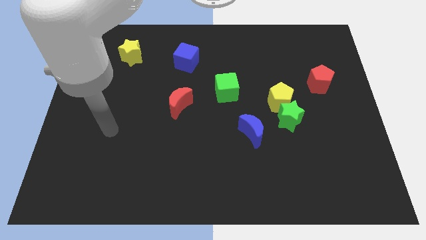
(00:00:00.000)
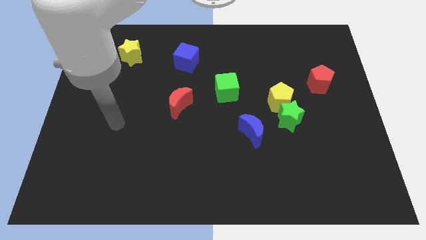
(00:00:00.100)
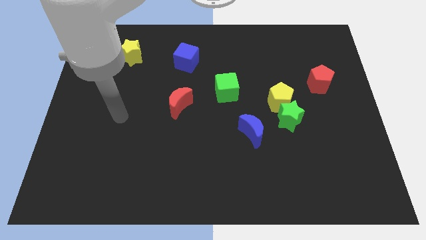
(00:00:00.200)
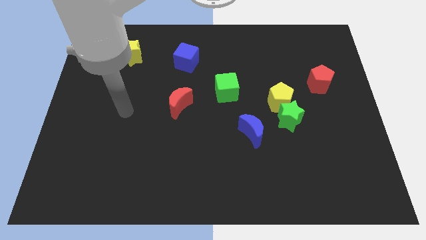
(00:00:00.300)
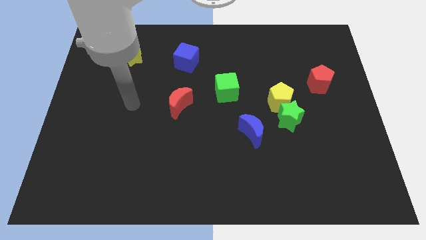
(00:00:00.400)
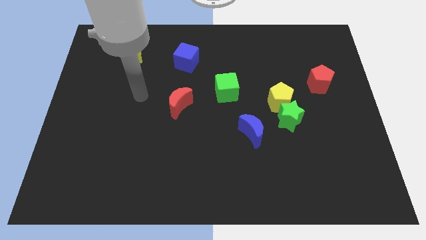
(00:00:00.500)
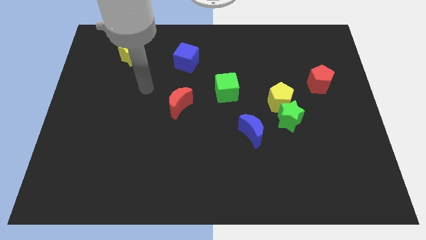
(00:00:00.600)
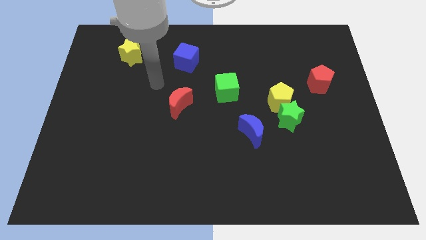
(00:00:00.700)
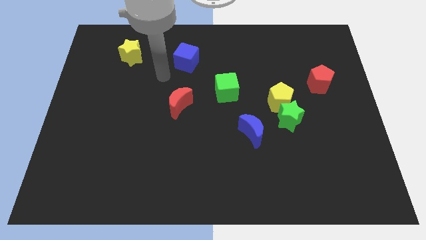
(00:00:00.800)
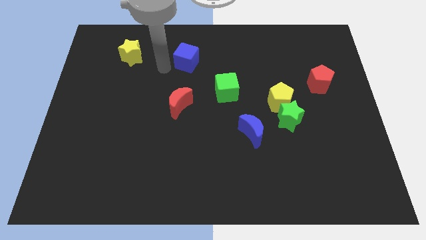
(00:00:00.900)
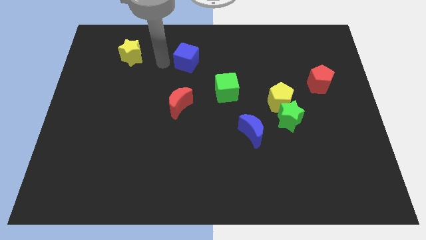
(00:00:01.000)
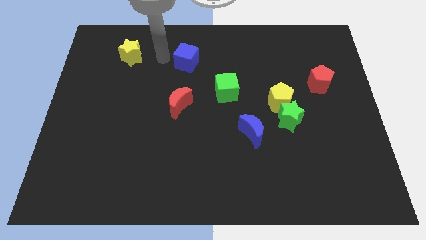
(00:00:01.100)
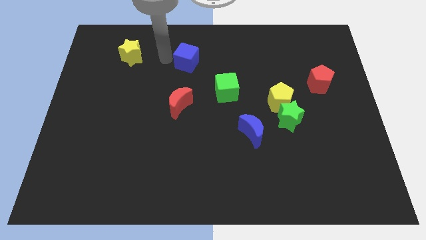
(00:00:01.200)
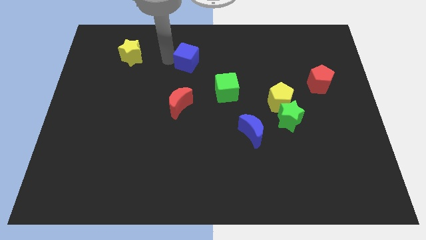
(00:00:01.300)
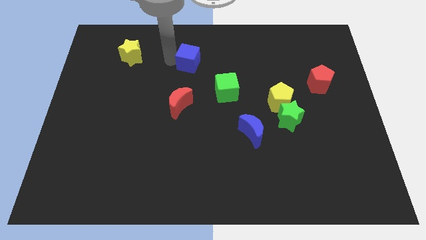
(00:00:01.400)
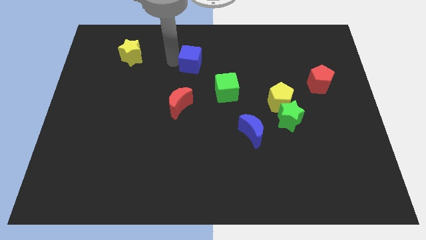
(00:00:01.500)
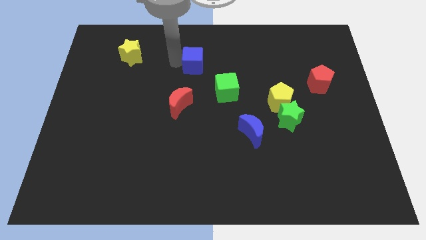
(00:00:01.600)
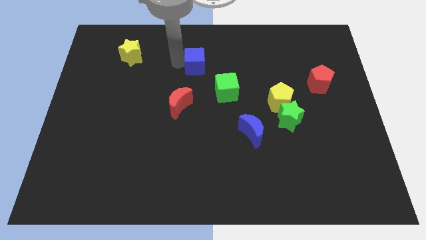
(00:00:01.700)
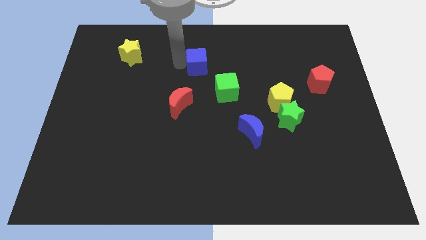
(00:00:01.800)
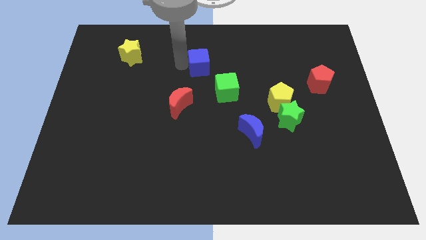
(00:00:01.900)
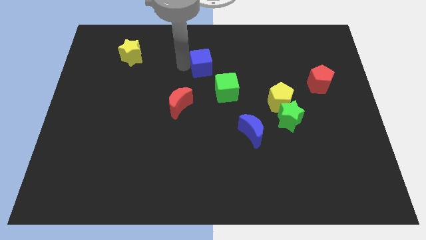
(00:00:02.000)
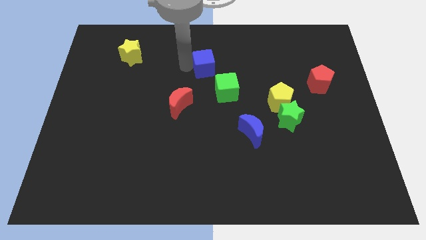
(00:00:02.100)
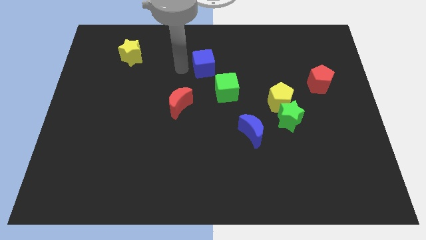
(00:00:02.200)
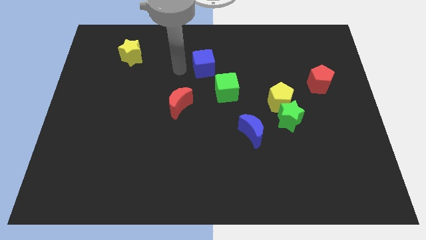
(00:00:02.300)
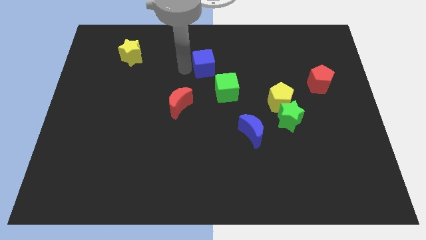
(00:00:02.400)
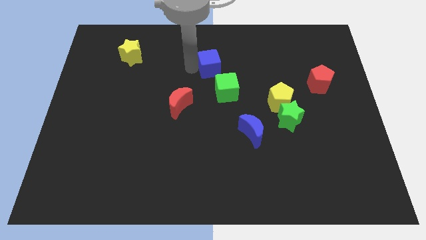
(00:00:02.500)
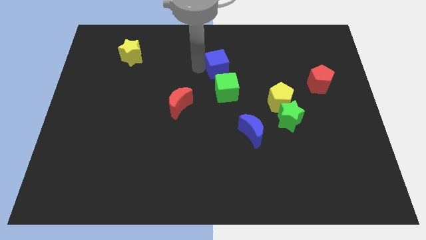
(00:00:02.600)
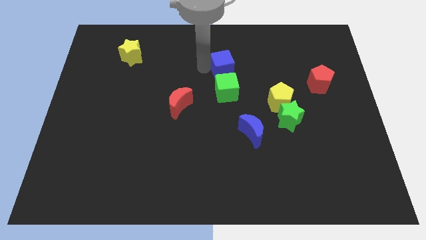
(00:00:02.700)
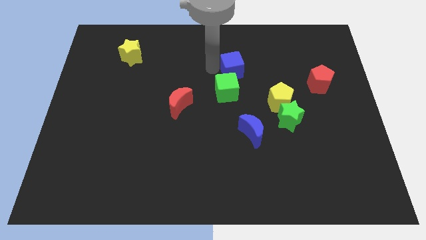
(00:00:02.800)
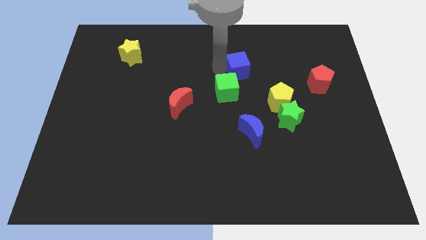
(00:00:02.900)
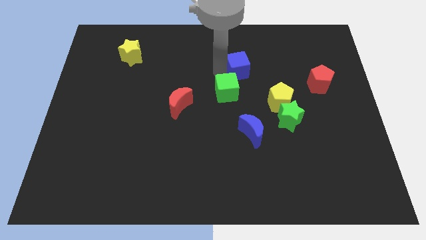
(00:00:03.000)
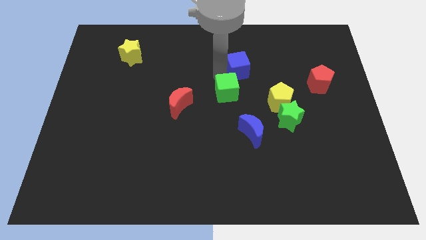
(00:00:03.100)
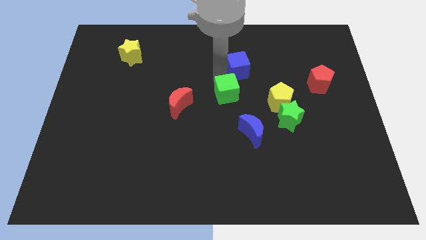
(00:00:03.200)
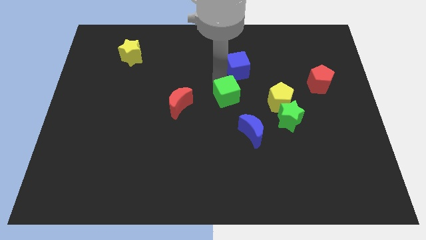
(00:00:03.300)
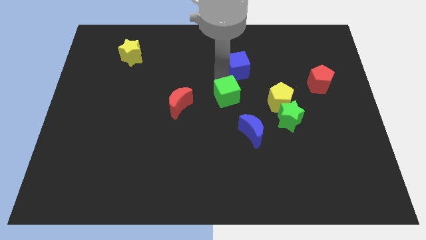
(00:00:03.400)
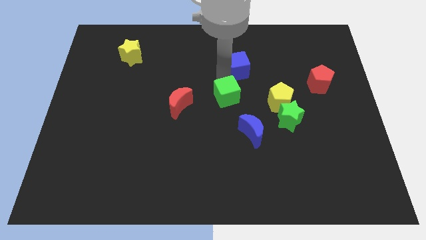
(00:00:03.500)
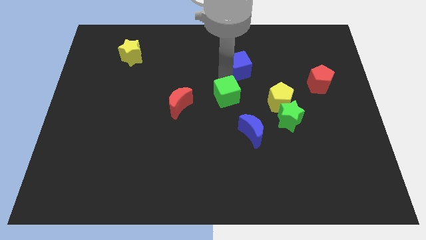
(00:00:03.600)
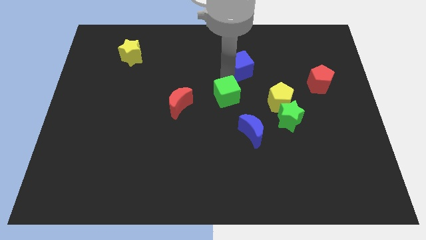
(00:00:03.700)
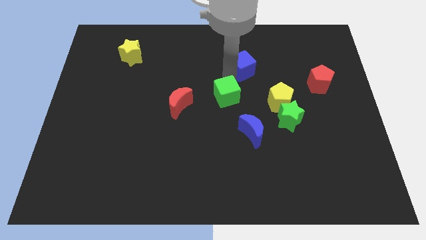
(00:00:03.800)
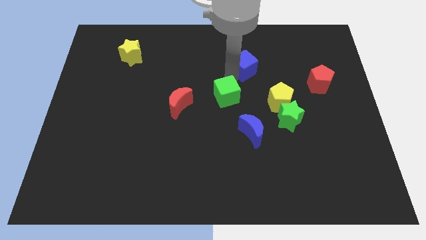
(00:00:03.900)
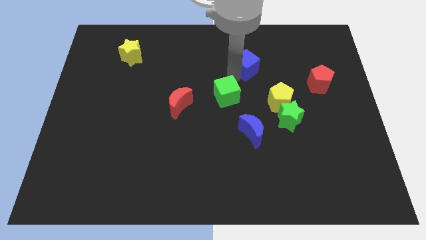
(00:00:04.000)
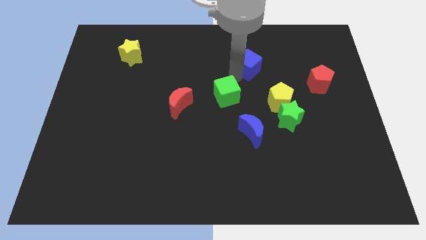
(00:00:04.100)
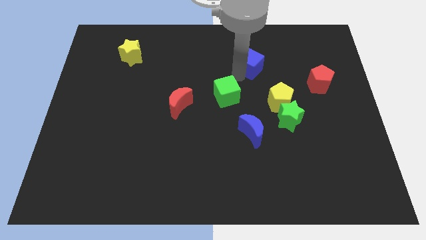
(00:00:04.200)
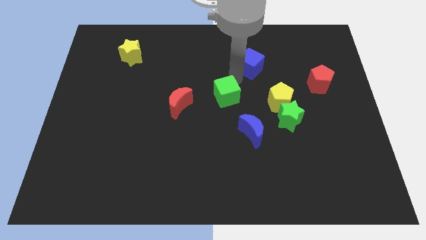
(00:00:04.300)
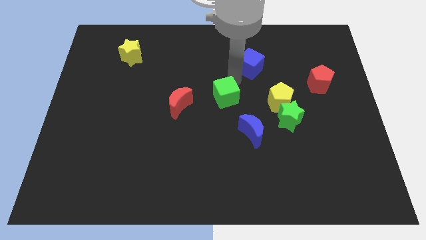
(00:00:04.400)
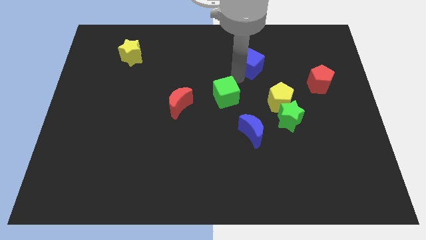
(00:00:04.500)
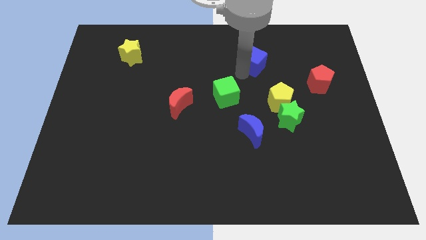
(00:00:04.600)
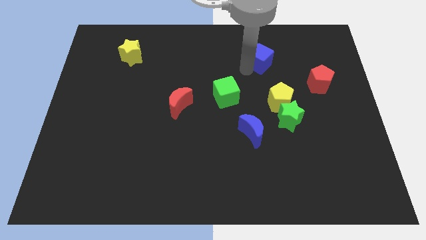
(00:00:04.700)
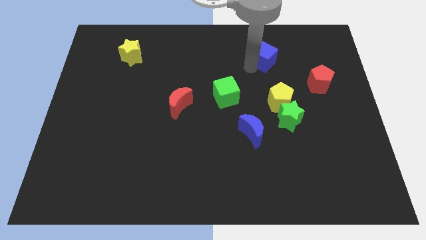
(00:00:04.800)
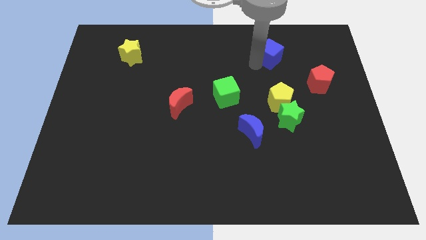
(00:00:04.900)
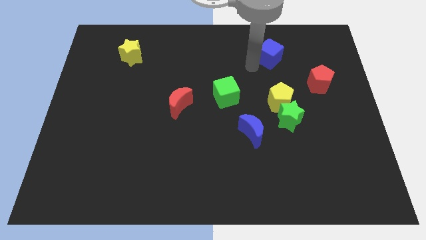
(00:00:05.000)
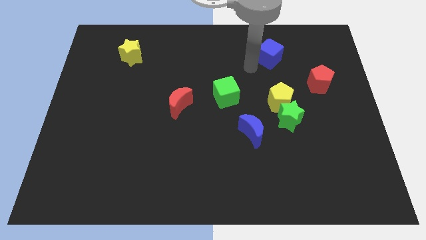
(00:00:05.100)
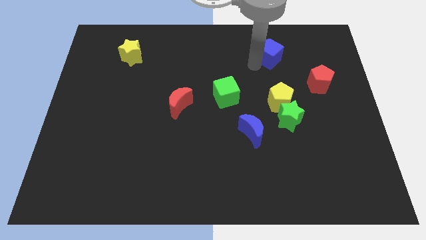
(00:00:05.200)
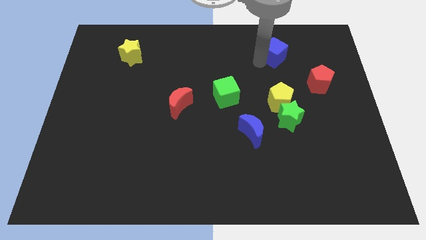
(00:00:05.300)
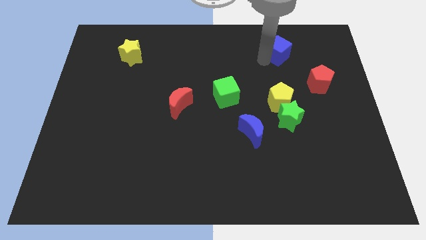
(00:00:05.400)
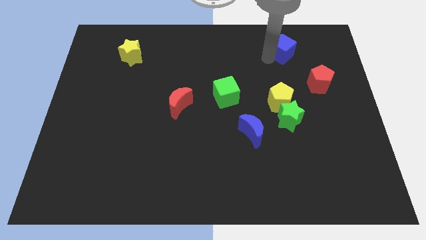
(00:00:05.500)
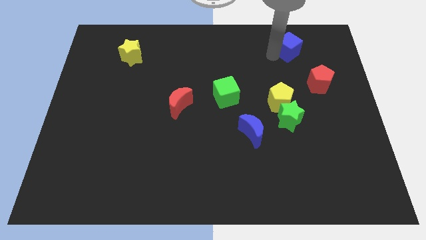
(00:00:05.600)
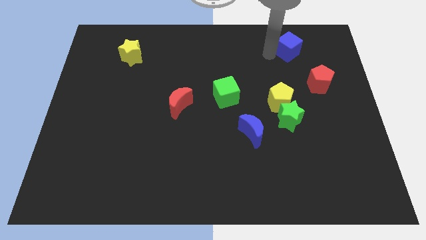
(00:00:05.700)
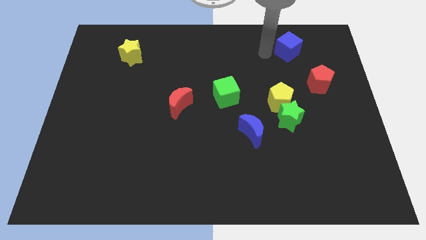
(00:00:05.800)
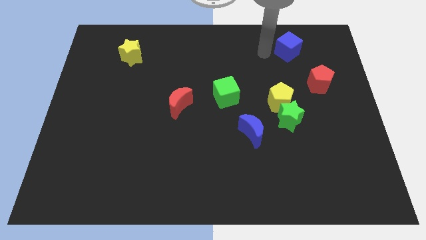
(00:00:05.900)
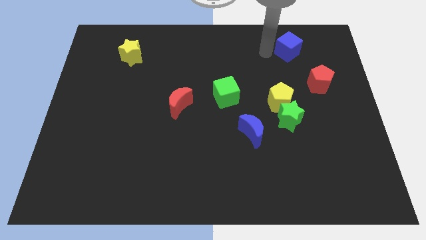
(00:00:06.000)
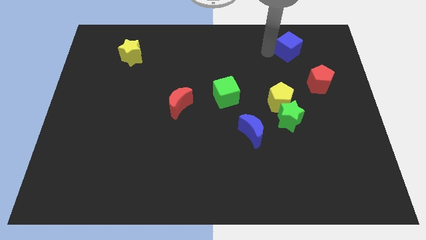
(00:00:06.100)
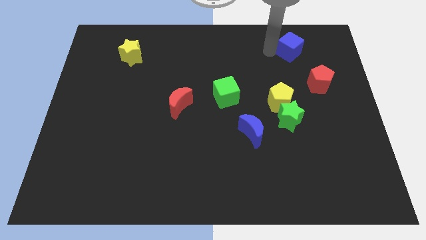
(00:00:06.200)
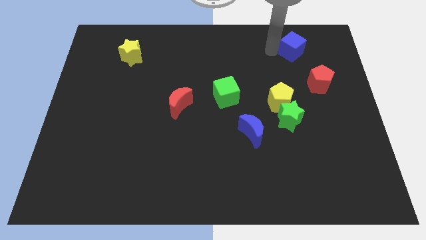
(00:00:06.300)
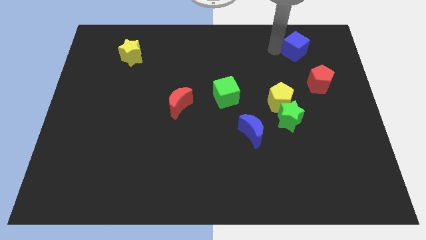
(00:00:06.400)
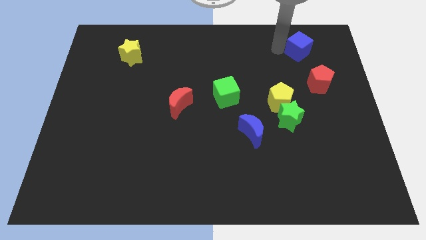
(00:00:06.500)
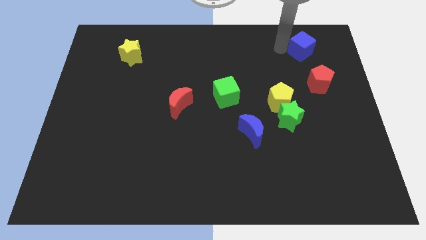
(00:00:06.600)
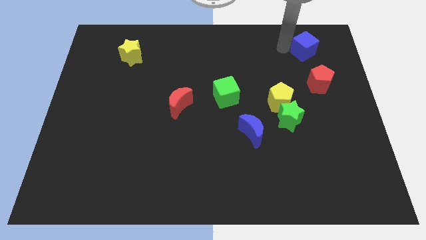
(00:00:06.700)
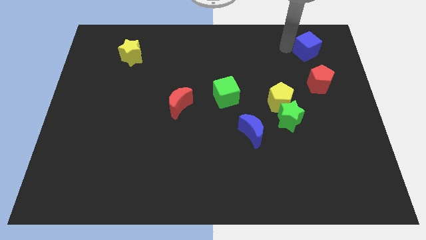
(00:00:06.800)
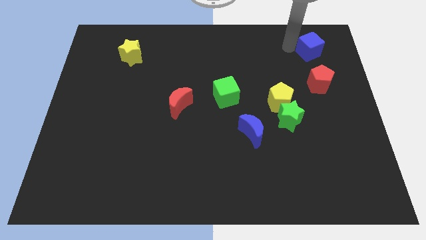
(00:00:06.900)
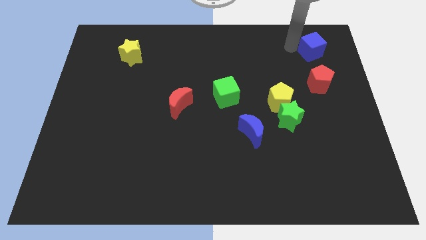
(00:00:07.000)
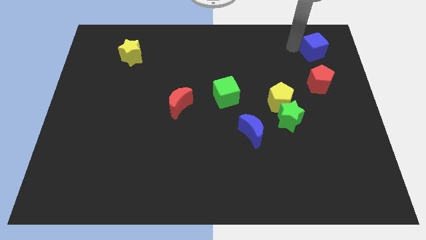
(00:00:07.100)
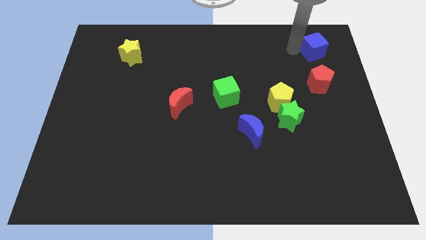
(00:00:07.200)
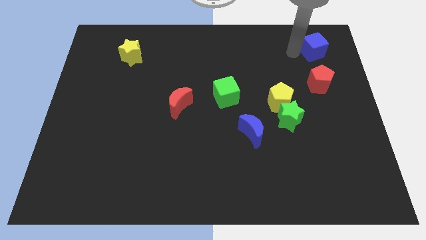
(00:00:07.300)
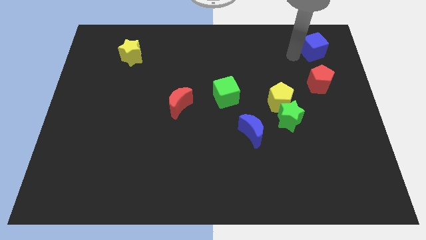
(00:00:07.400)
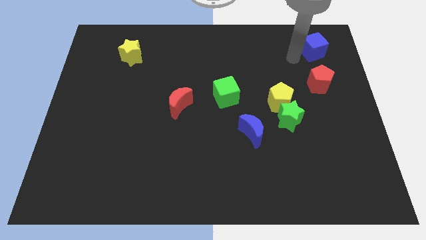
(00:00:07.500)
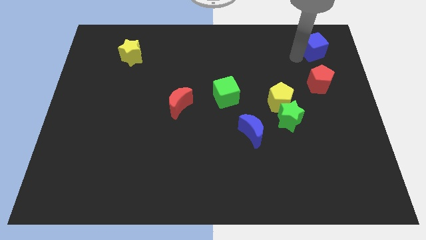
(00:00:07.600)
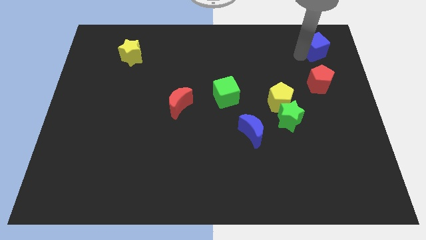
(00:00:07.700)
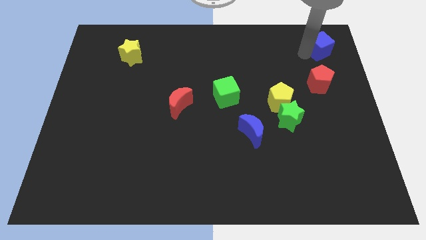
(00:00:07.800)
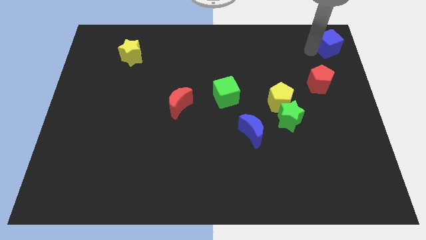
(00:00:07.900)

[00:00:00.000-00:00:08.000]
slide the blue cube to the top right of the board
